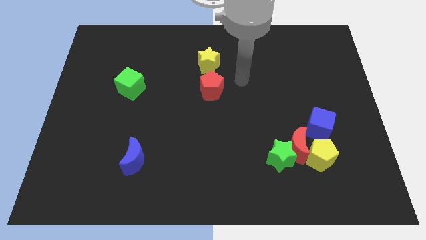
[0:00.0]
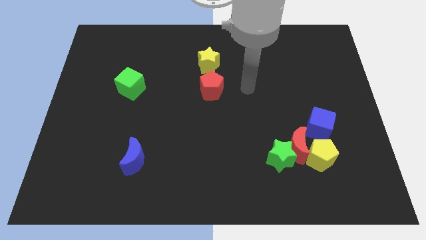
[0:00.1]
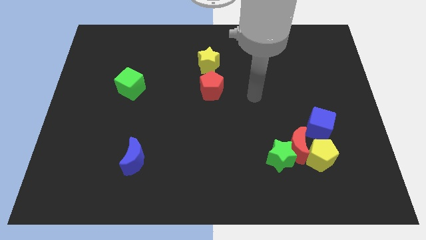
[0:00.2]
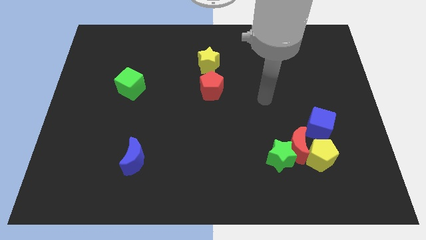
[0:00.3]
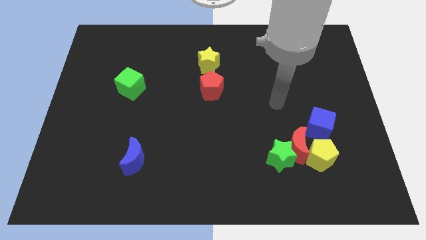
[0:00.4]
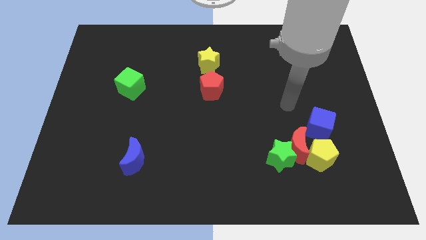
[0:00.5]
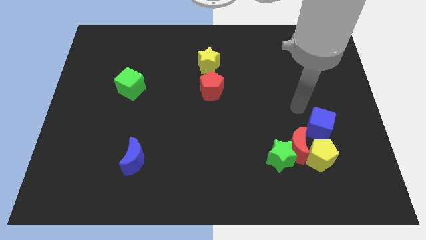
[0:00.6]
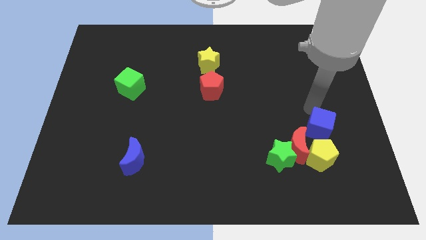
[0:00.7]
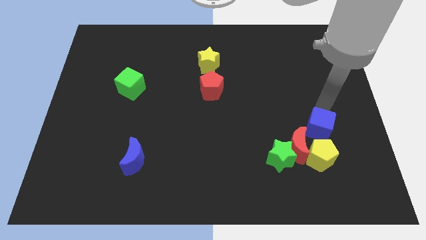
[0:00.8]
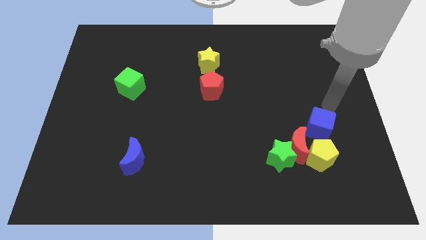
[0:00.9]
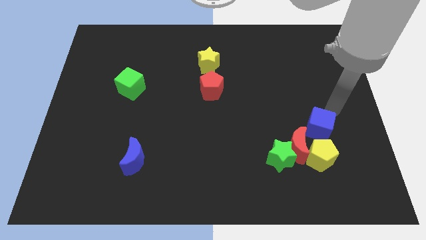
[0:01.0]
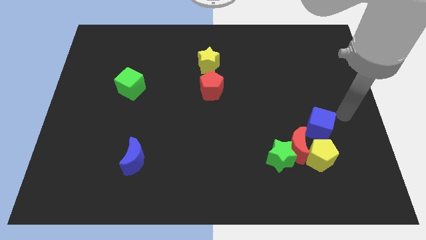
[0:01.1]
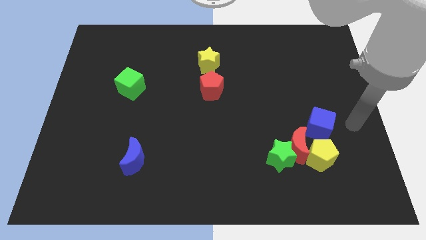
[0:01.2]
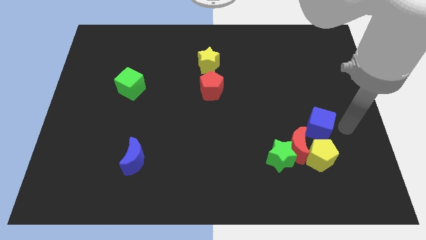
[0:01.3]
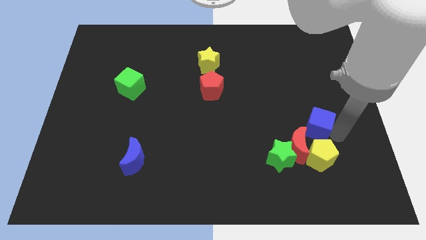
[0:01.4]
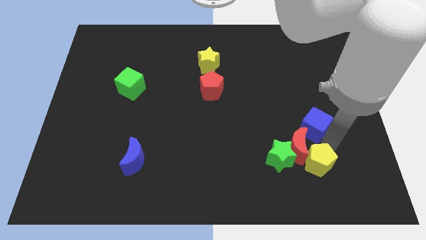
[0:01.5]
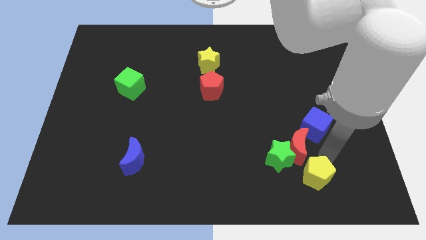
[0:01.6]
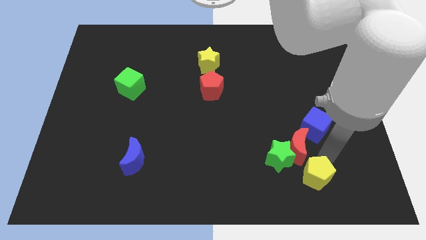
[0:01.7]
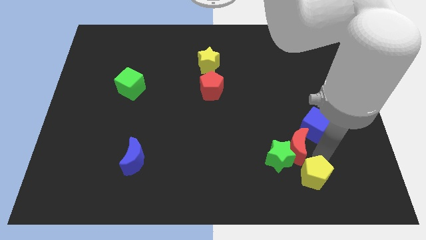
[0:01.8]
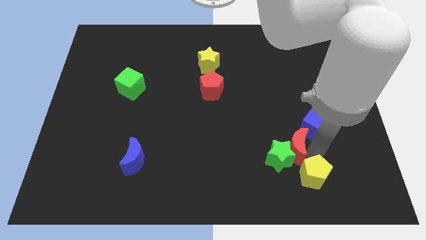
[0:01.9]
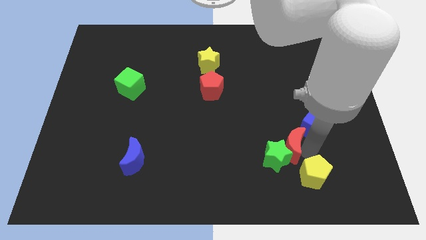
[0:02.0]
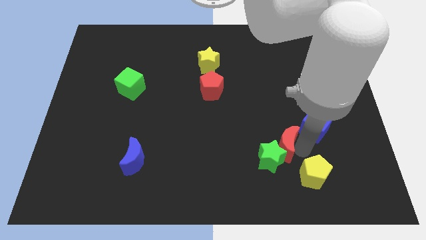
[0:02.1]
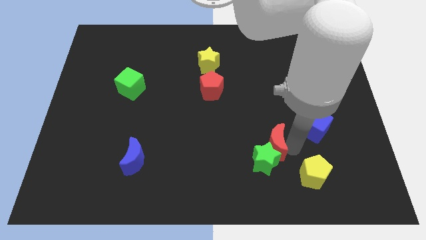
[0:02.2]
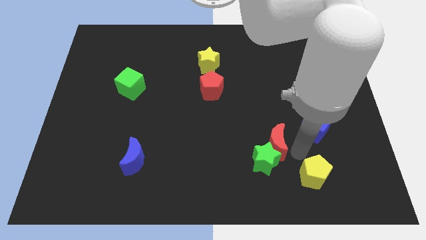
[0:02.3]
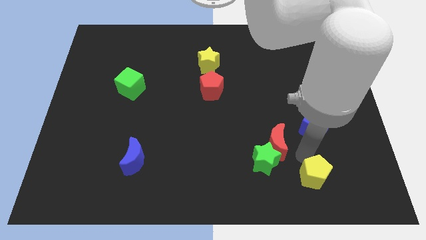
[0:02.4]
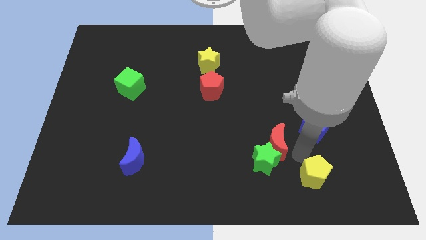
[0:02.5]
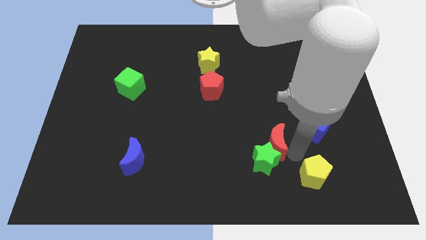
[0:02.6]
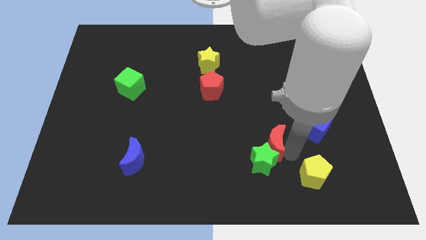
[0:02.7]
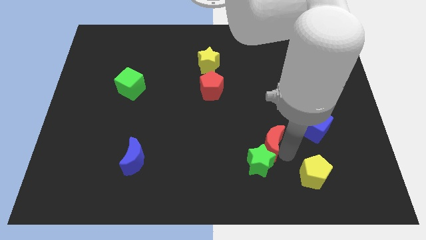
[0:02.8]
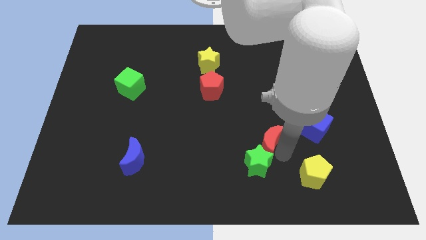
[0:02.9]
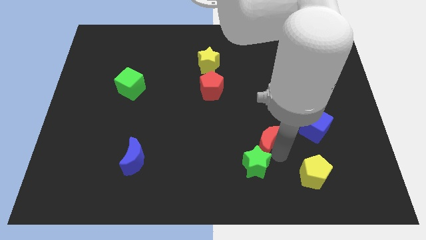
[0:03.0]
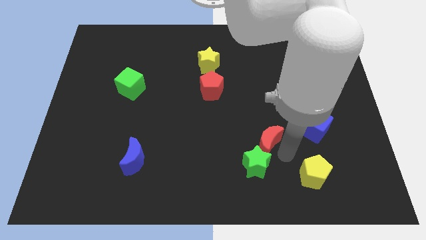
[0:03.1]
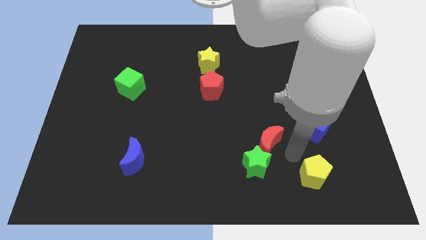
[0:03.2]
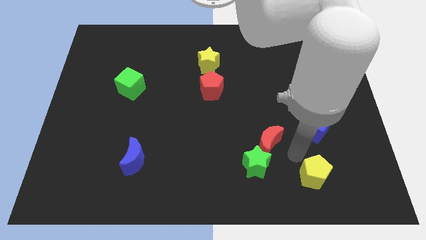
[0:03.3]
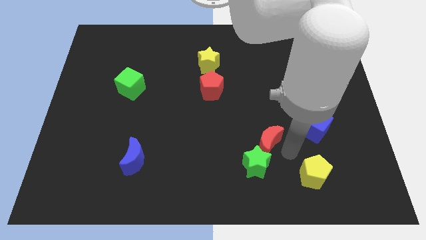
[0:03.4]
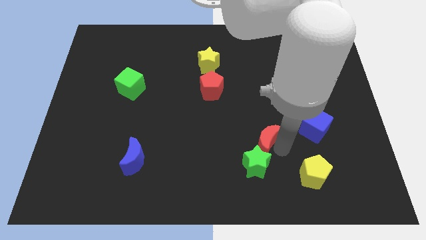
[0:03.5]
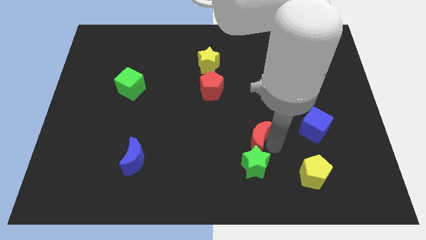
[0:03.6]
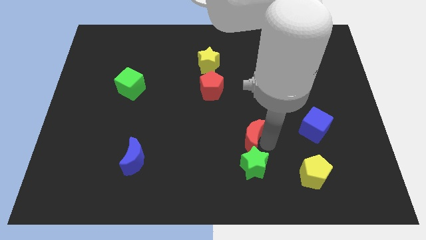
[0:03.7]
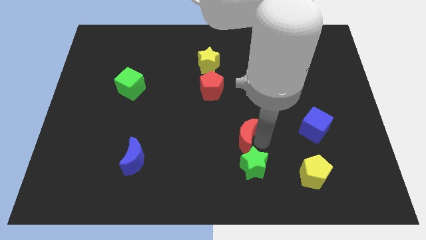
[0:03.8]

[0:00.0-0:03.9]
pull the red moon apart from the green star, yellow pentagon, and blue cube

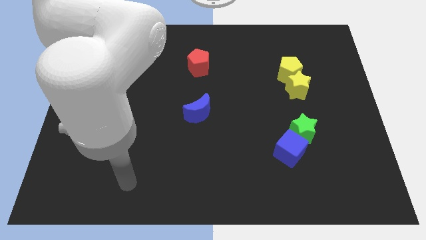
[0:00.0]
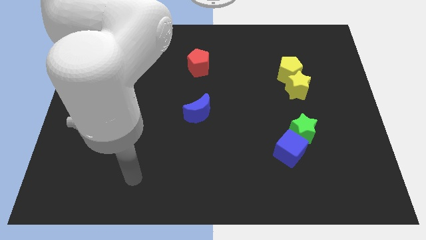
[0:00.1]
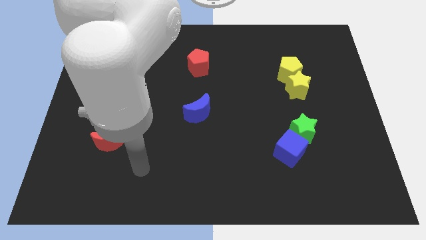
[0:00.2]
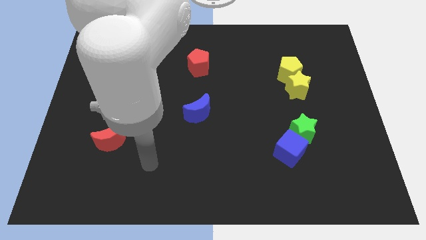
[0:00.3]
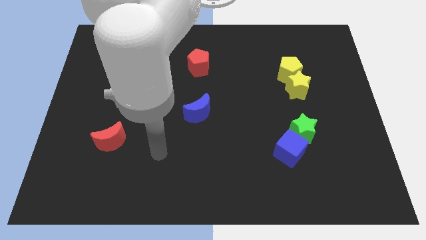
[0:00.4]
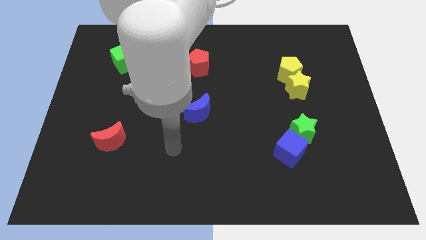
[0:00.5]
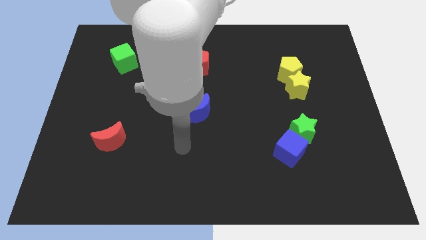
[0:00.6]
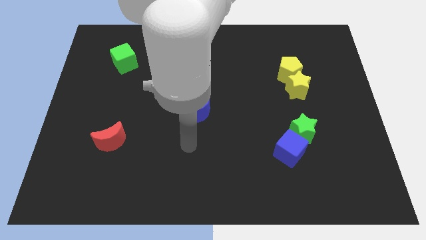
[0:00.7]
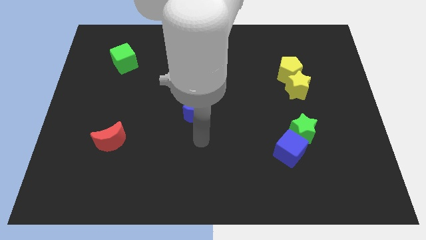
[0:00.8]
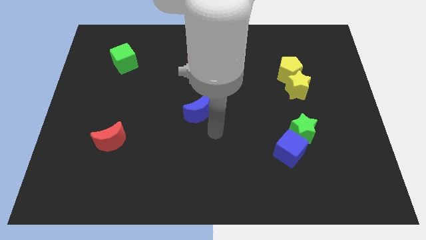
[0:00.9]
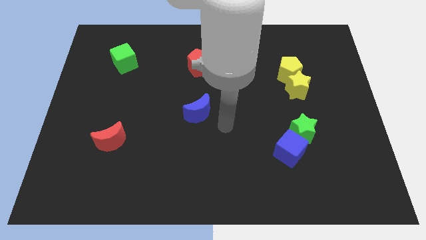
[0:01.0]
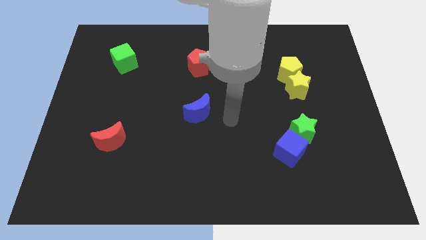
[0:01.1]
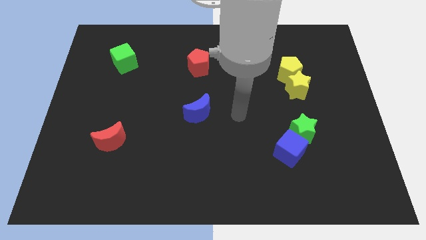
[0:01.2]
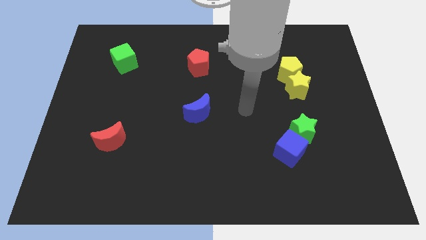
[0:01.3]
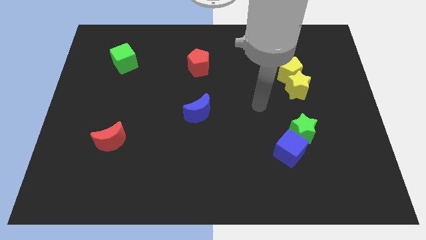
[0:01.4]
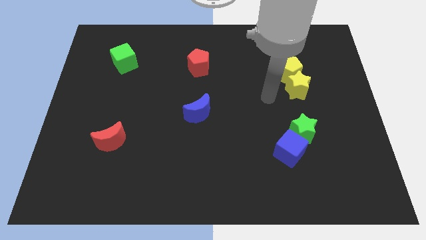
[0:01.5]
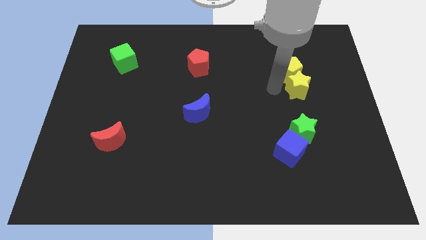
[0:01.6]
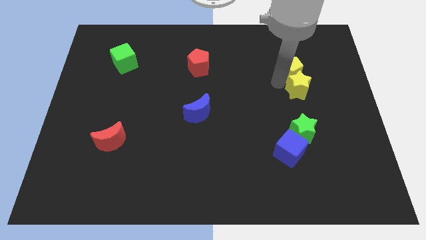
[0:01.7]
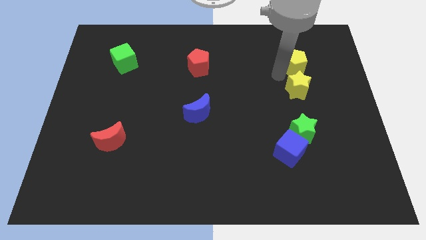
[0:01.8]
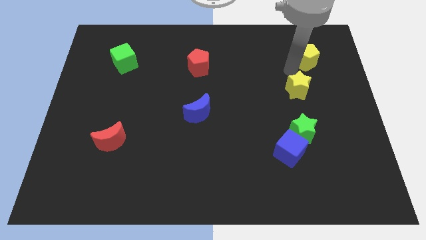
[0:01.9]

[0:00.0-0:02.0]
pull the yellow star apart from the yellow pentagon

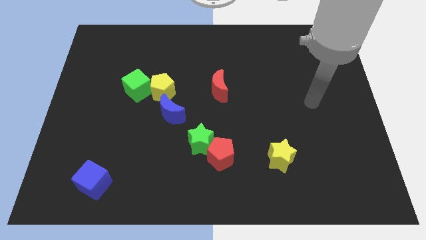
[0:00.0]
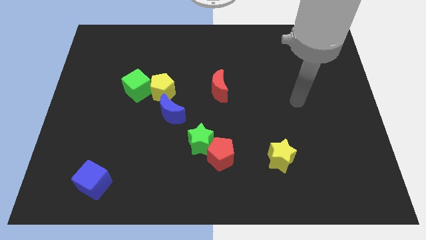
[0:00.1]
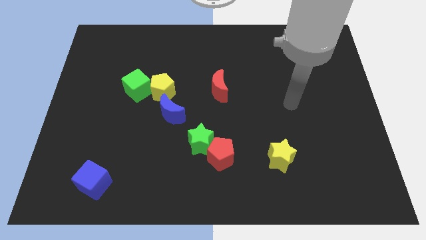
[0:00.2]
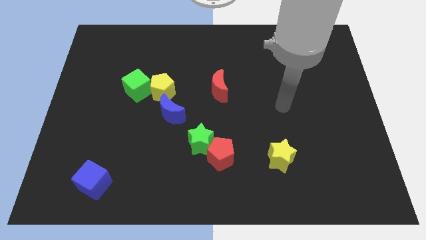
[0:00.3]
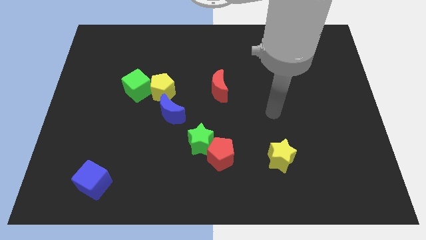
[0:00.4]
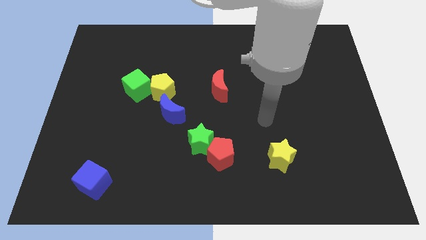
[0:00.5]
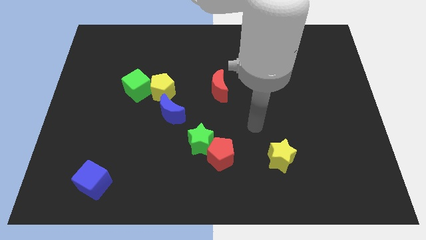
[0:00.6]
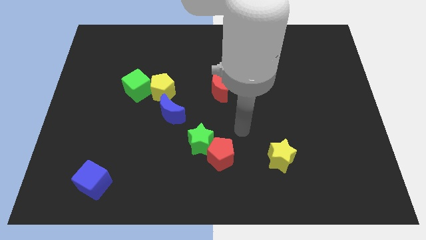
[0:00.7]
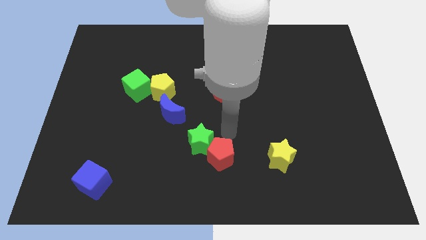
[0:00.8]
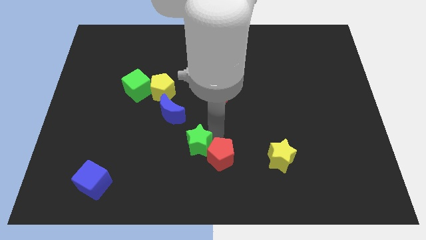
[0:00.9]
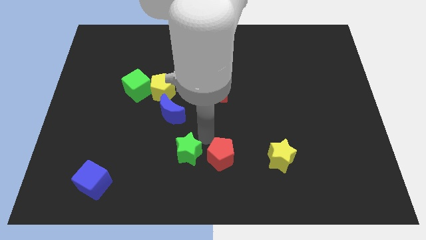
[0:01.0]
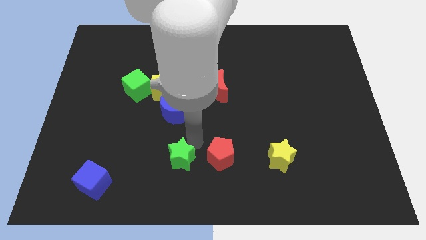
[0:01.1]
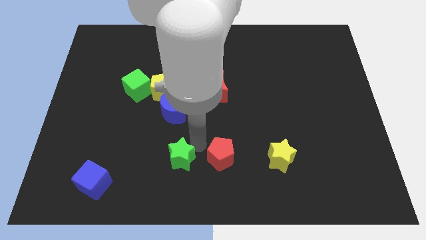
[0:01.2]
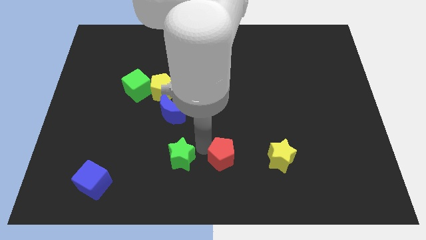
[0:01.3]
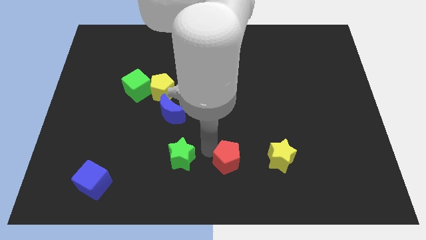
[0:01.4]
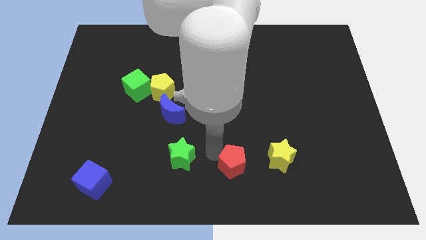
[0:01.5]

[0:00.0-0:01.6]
separate the red pentagon from the green star

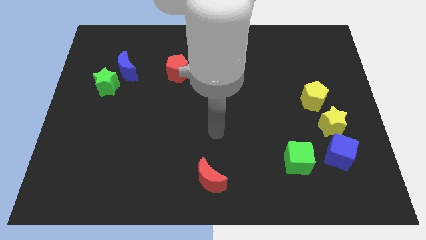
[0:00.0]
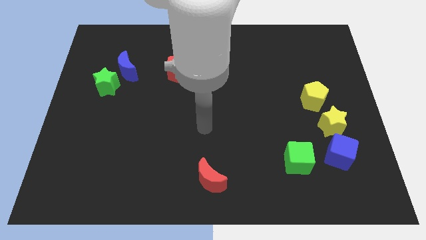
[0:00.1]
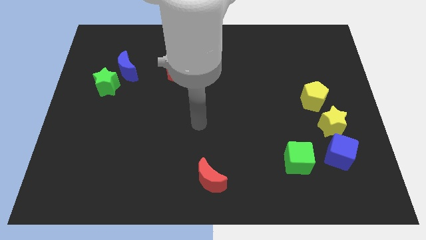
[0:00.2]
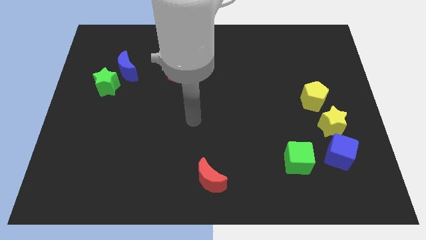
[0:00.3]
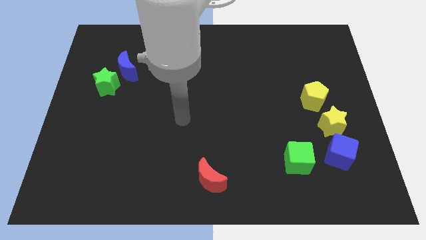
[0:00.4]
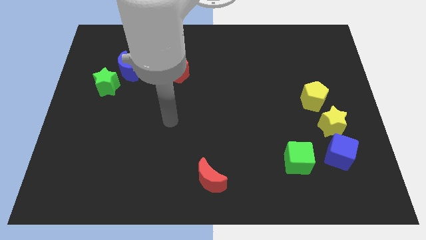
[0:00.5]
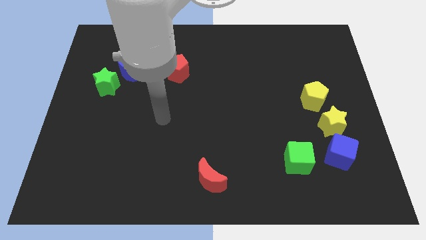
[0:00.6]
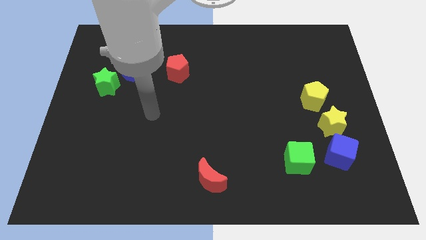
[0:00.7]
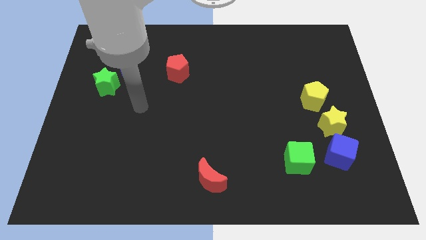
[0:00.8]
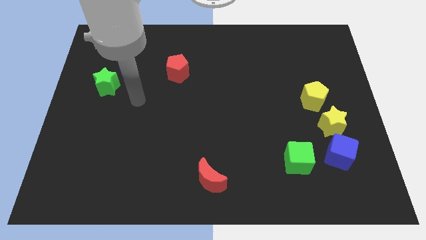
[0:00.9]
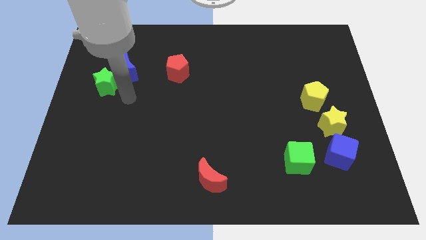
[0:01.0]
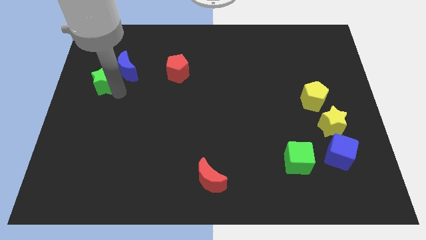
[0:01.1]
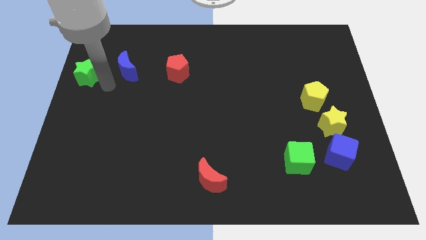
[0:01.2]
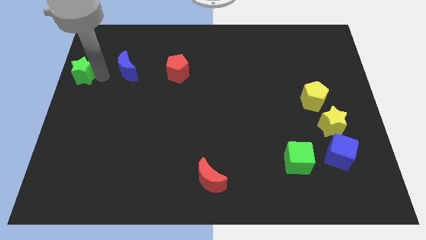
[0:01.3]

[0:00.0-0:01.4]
move the blue moon away from the green star

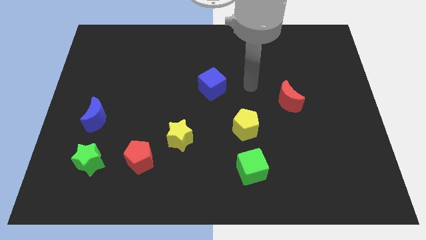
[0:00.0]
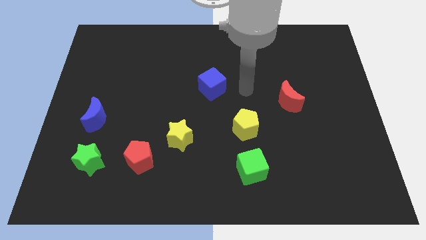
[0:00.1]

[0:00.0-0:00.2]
move the red pentagon away from the yellow star
